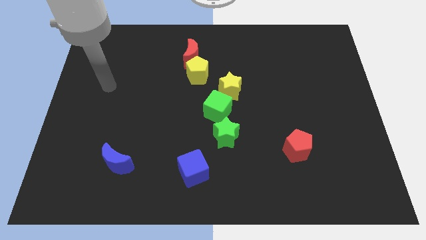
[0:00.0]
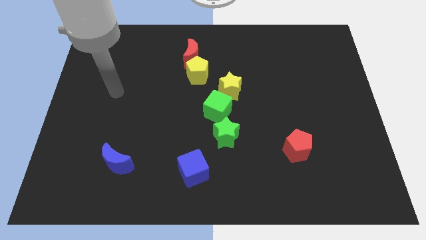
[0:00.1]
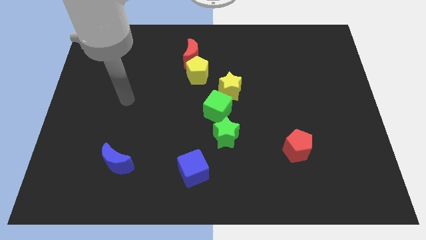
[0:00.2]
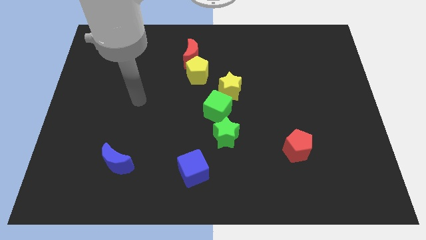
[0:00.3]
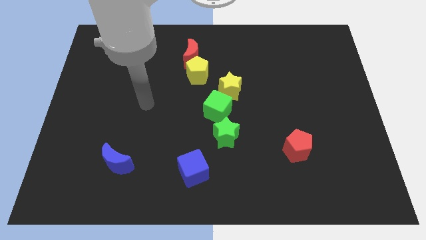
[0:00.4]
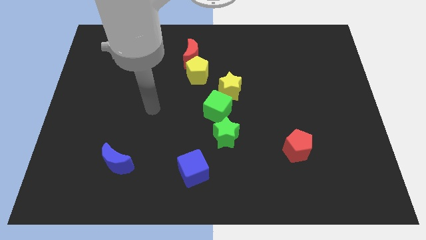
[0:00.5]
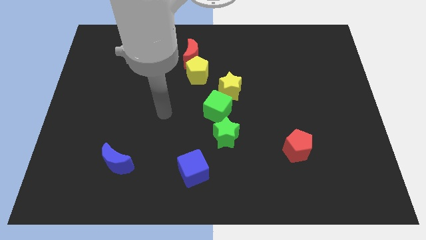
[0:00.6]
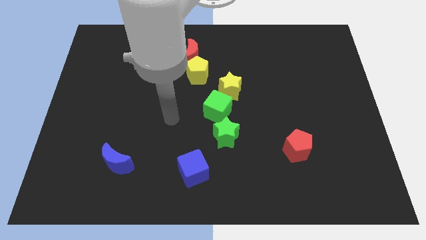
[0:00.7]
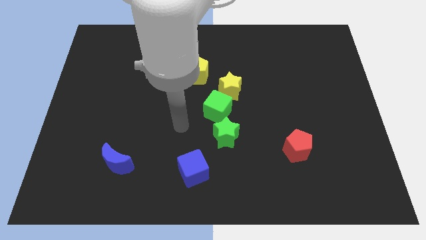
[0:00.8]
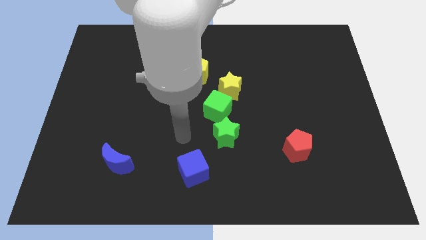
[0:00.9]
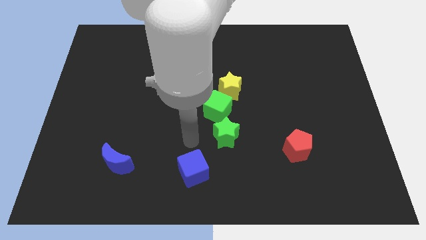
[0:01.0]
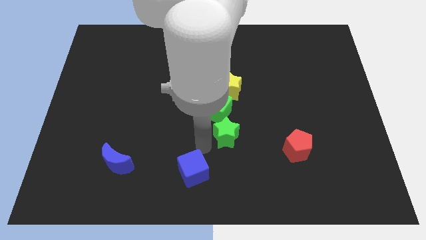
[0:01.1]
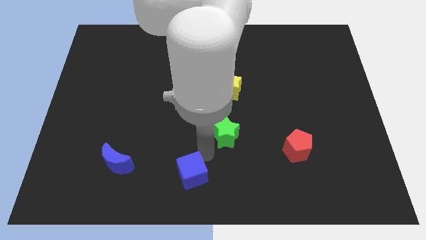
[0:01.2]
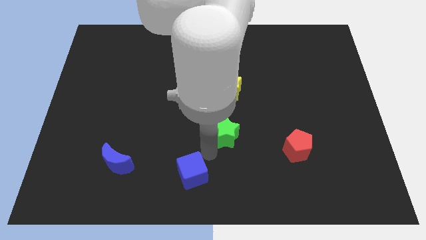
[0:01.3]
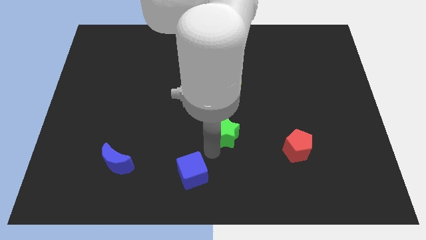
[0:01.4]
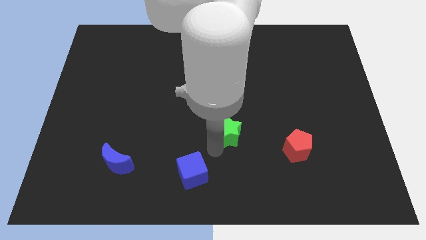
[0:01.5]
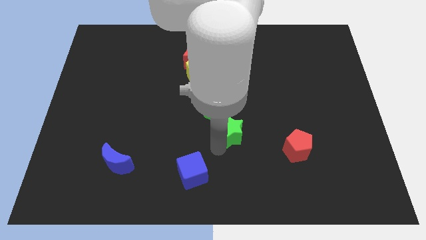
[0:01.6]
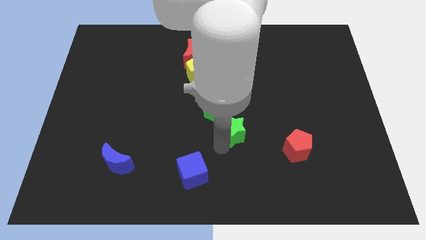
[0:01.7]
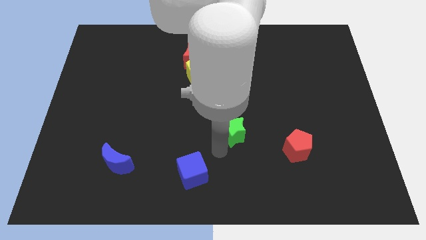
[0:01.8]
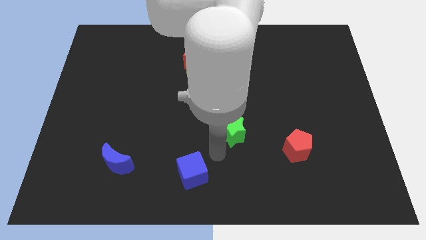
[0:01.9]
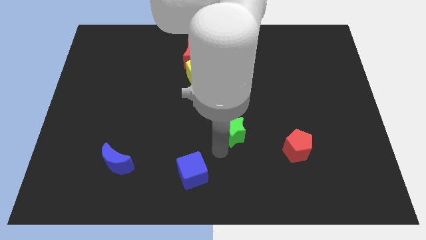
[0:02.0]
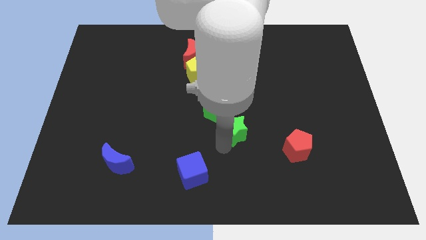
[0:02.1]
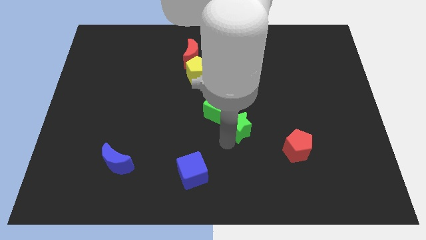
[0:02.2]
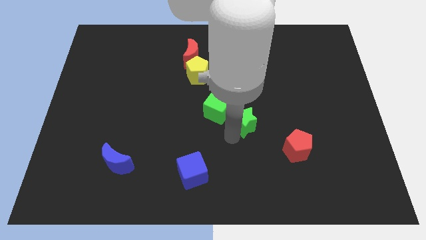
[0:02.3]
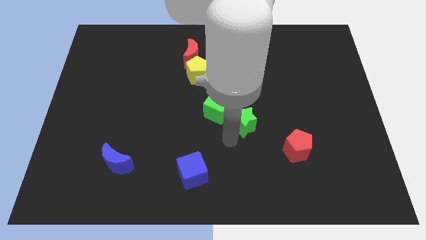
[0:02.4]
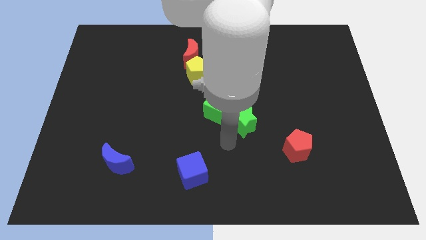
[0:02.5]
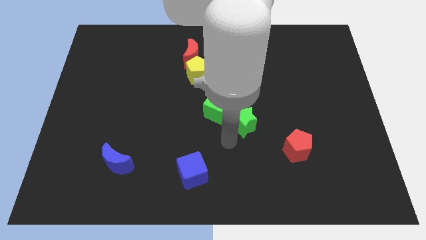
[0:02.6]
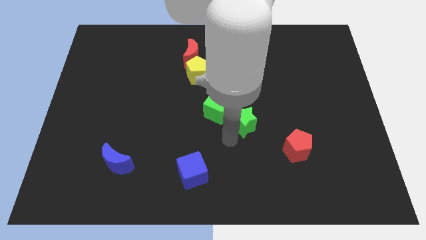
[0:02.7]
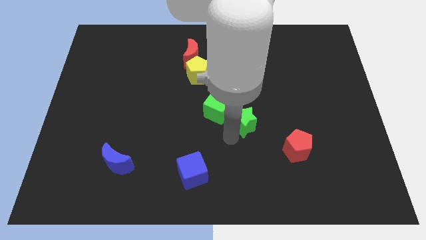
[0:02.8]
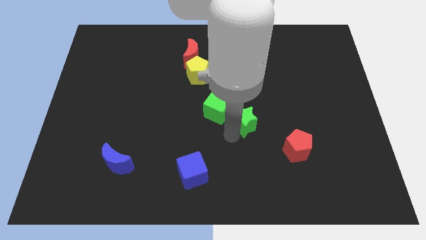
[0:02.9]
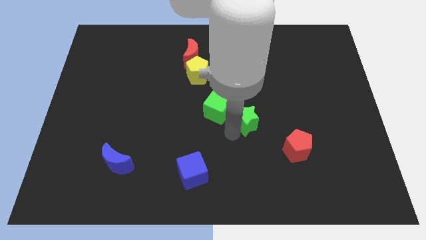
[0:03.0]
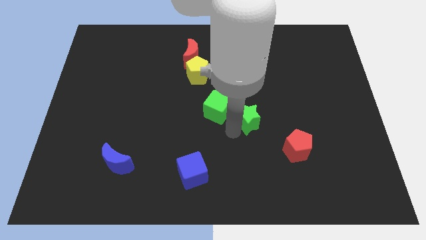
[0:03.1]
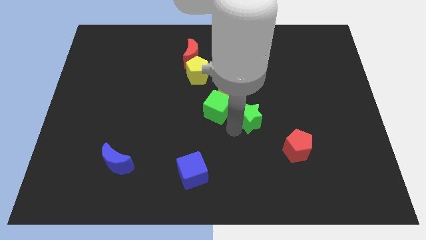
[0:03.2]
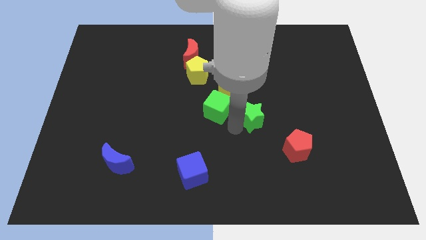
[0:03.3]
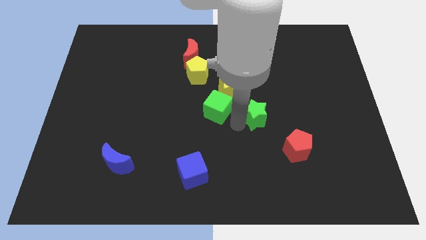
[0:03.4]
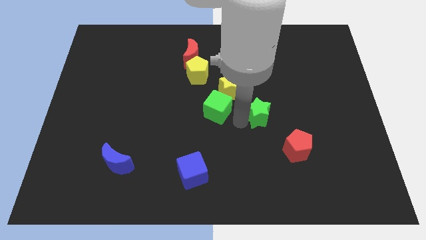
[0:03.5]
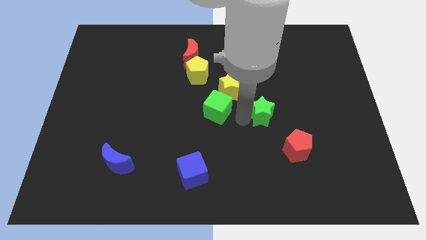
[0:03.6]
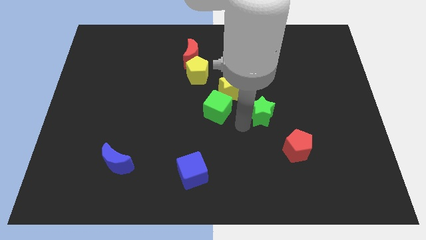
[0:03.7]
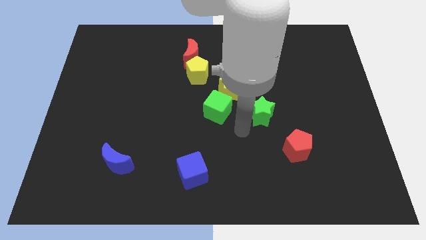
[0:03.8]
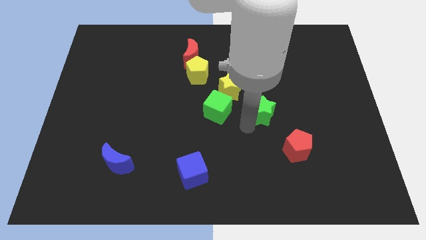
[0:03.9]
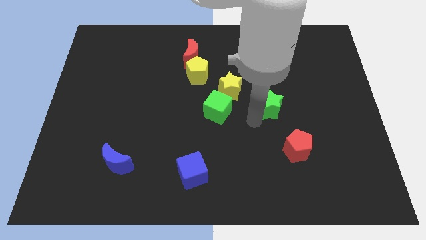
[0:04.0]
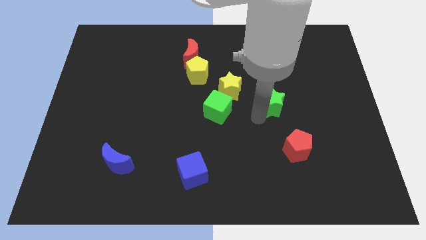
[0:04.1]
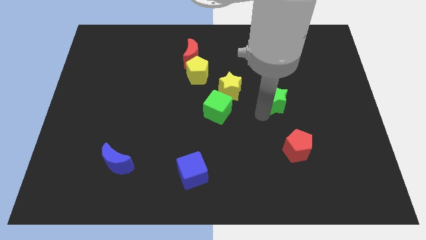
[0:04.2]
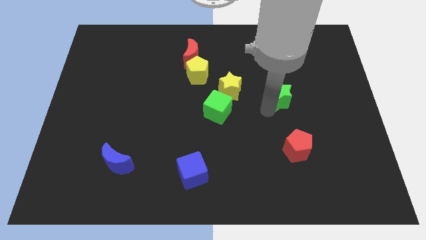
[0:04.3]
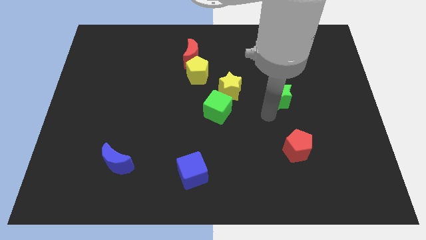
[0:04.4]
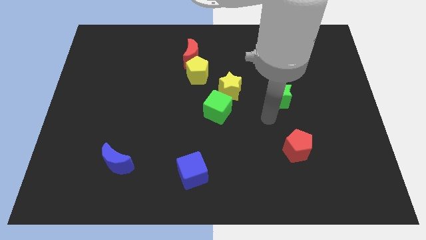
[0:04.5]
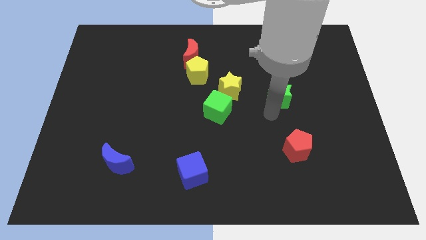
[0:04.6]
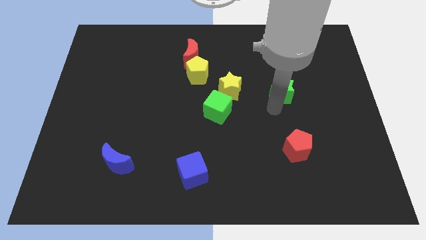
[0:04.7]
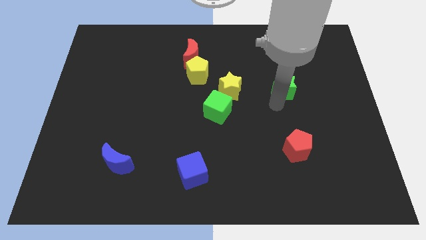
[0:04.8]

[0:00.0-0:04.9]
push the green star upwards and then right

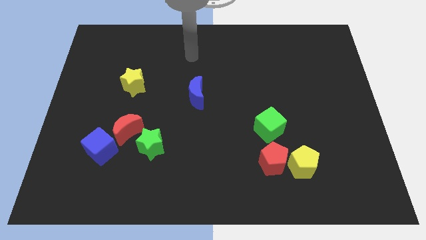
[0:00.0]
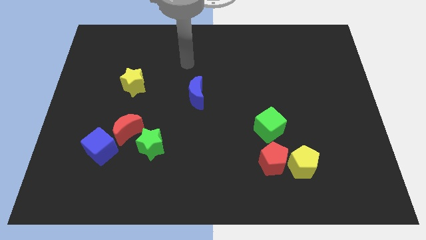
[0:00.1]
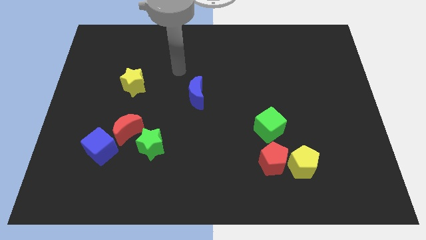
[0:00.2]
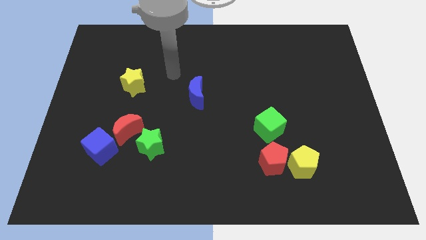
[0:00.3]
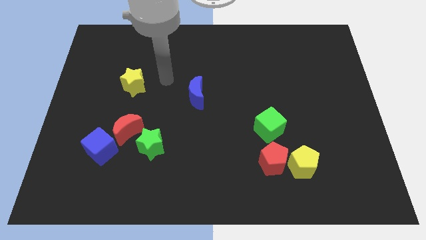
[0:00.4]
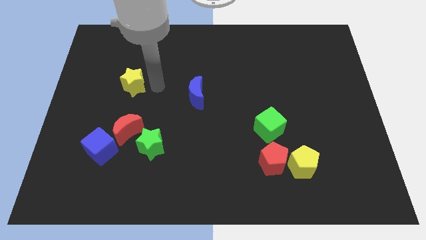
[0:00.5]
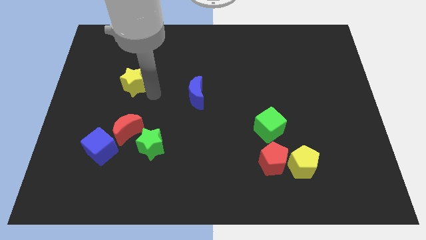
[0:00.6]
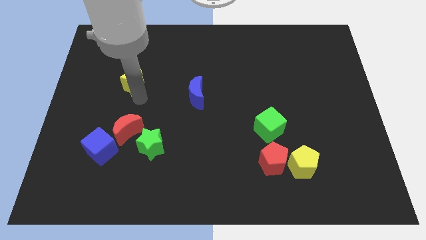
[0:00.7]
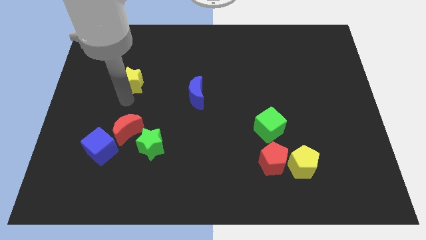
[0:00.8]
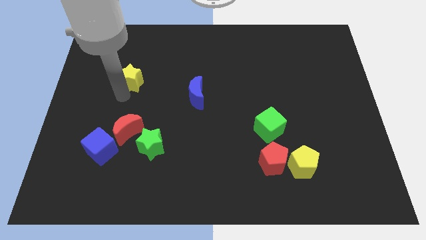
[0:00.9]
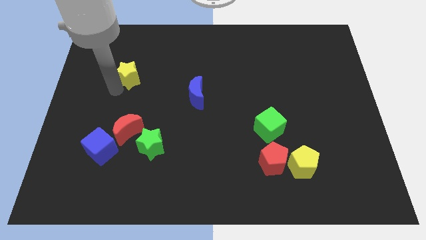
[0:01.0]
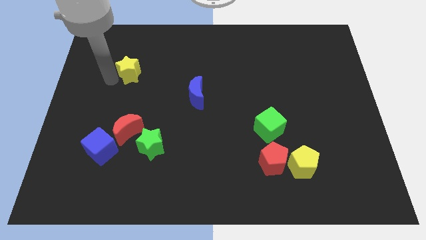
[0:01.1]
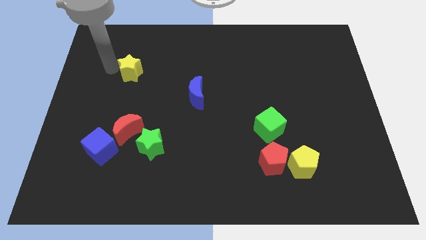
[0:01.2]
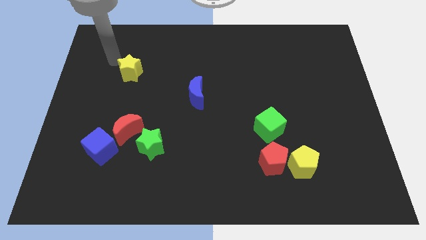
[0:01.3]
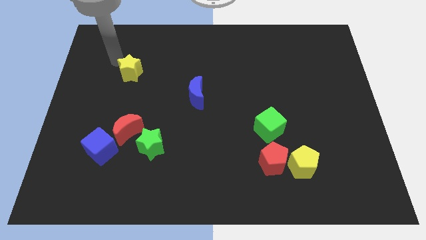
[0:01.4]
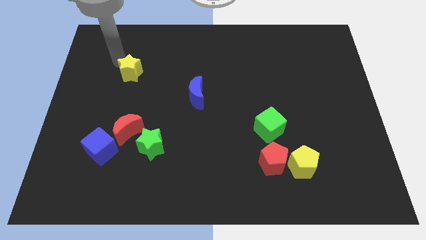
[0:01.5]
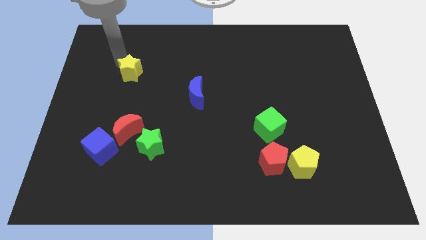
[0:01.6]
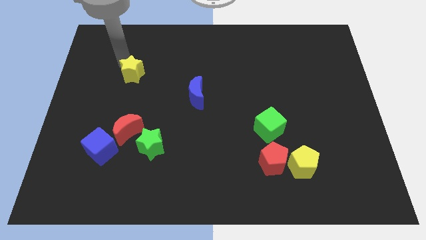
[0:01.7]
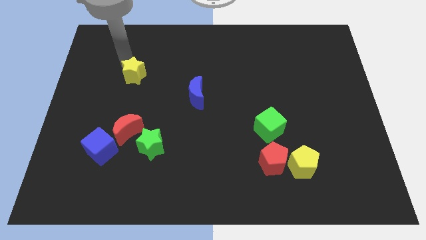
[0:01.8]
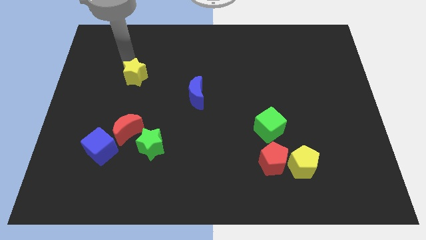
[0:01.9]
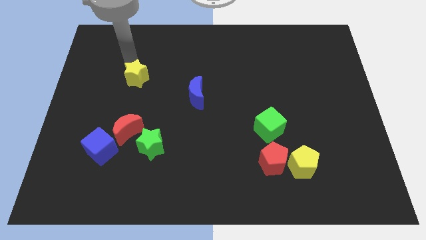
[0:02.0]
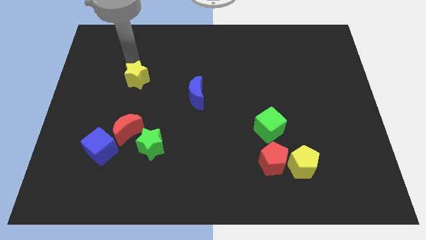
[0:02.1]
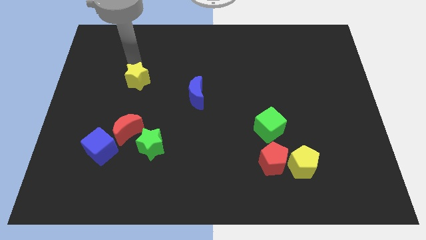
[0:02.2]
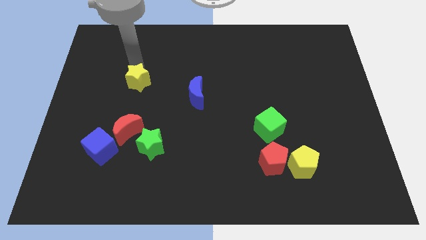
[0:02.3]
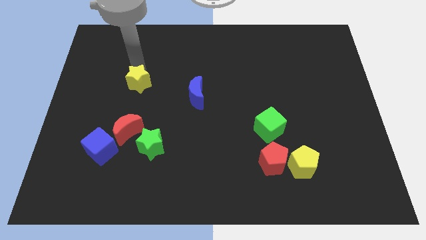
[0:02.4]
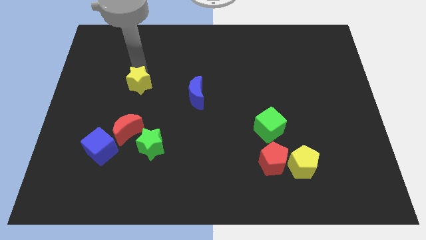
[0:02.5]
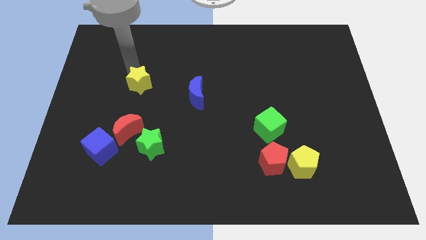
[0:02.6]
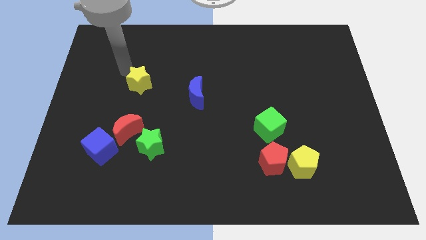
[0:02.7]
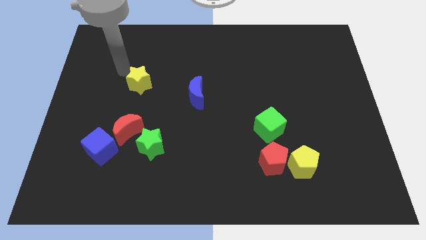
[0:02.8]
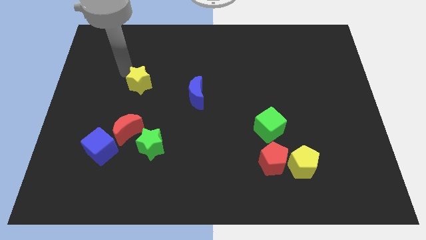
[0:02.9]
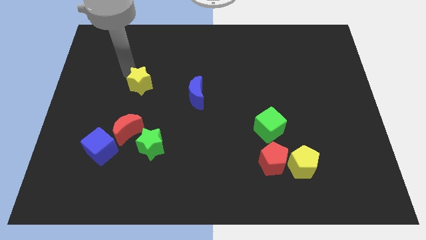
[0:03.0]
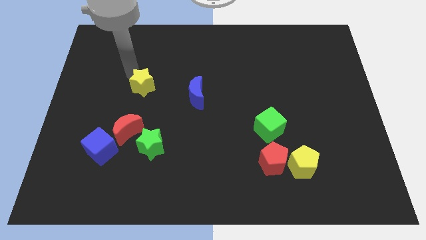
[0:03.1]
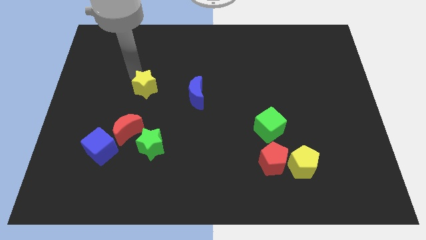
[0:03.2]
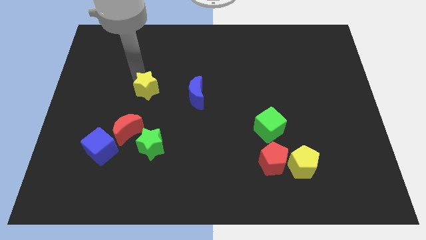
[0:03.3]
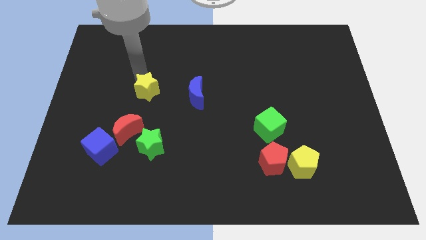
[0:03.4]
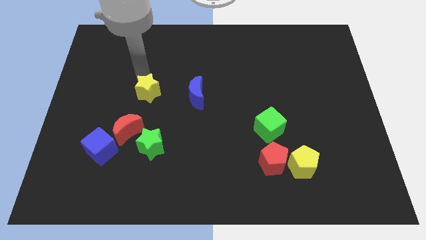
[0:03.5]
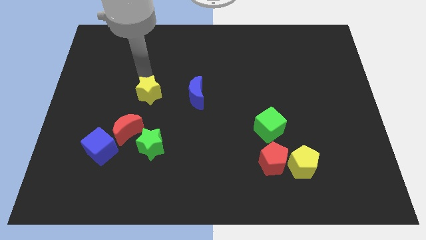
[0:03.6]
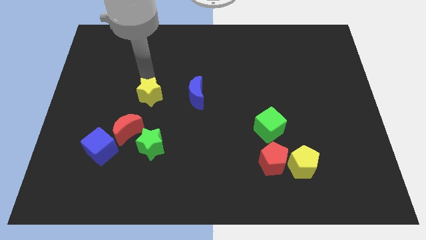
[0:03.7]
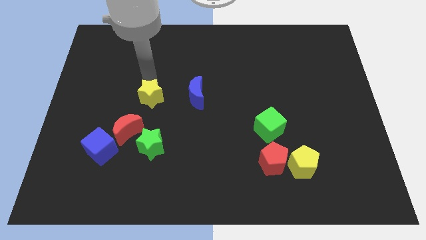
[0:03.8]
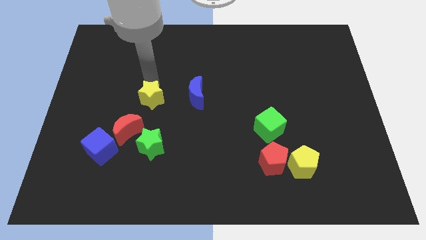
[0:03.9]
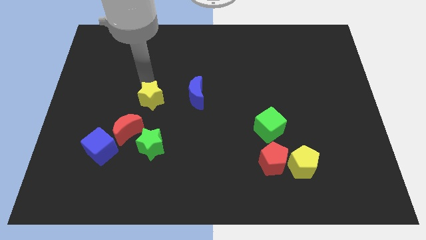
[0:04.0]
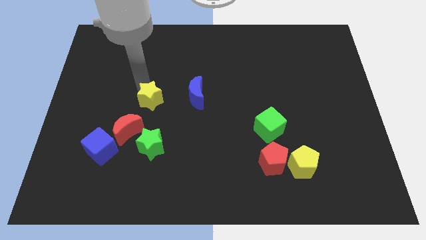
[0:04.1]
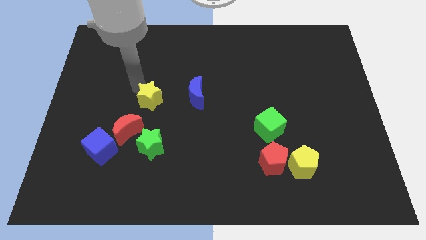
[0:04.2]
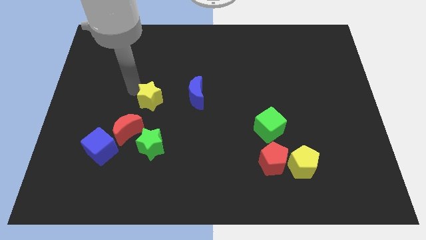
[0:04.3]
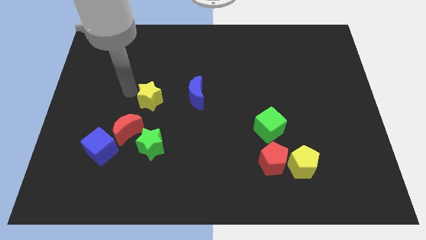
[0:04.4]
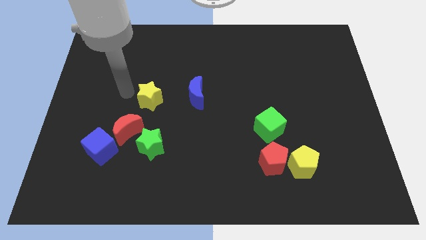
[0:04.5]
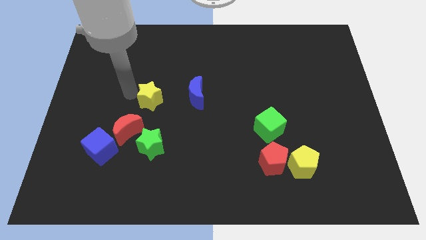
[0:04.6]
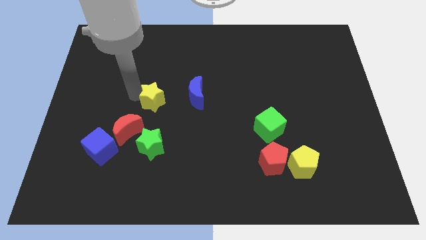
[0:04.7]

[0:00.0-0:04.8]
slightly move the yellow star downwards and then right
